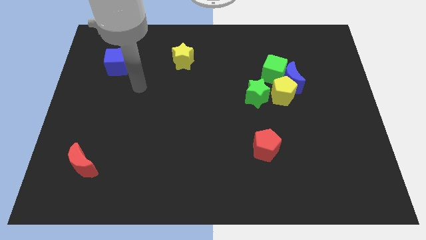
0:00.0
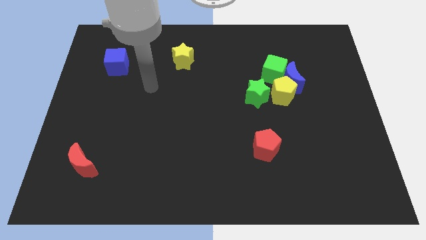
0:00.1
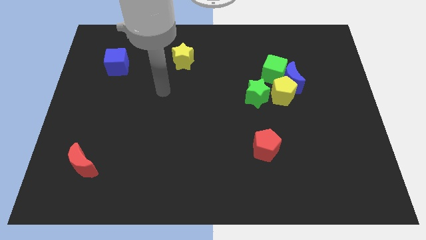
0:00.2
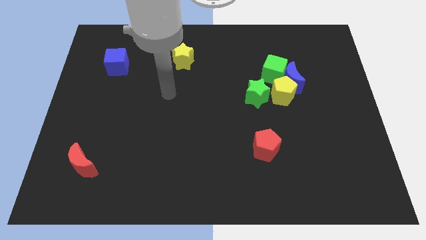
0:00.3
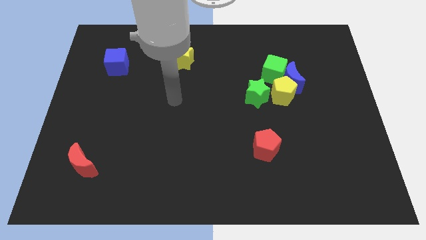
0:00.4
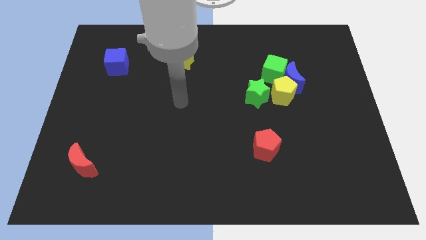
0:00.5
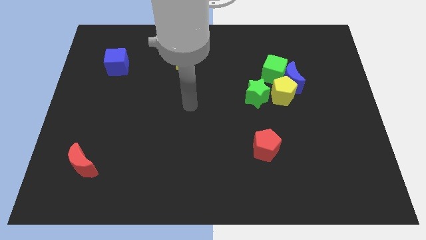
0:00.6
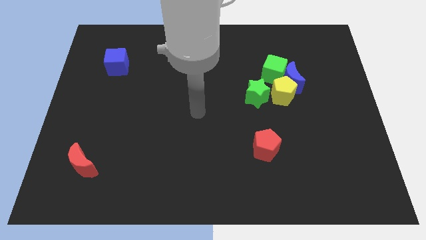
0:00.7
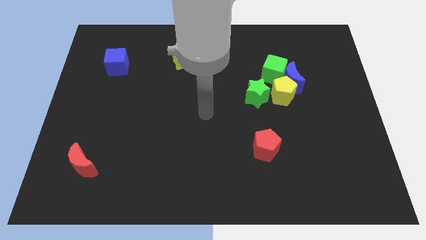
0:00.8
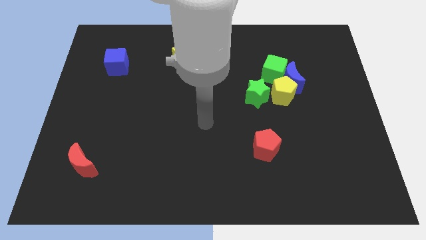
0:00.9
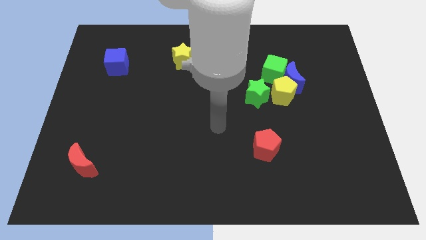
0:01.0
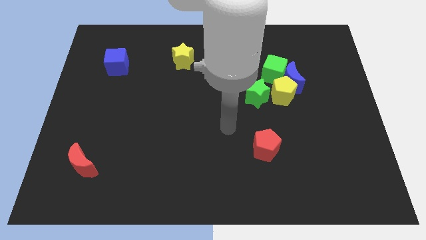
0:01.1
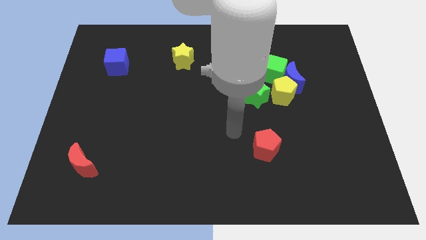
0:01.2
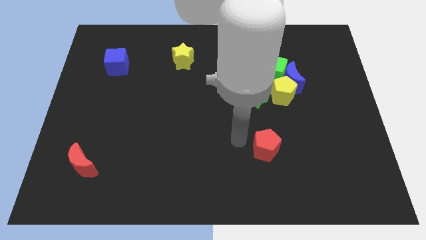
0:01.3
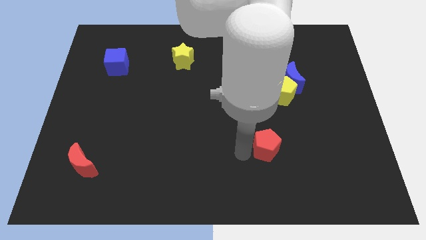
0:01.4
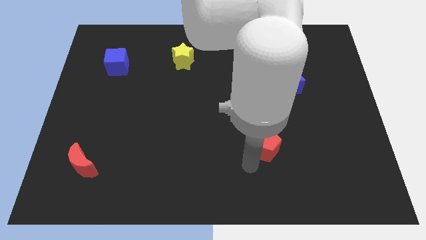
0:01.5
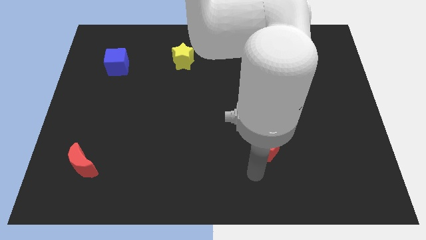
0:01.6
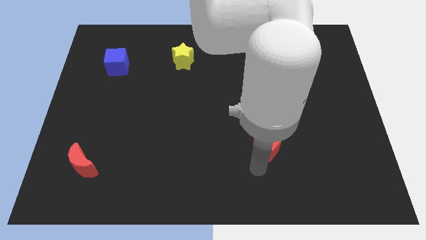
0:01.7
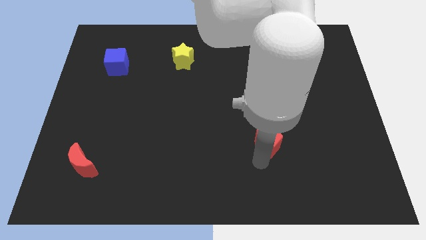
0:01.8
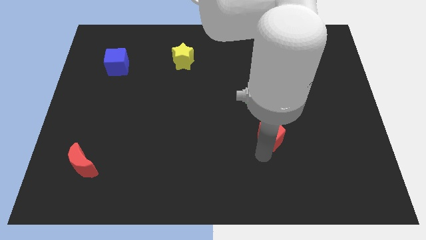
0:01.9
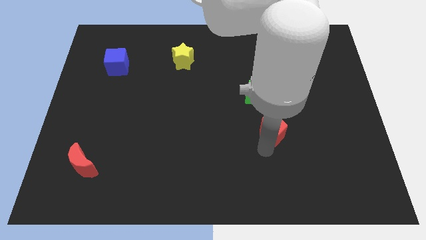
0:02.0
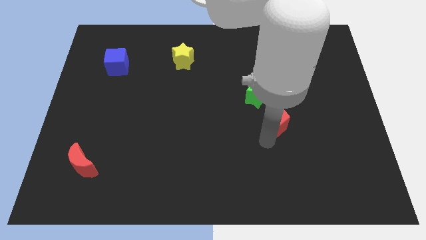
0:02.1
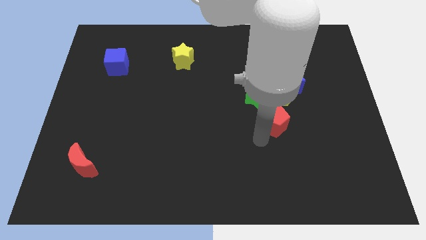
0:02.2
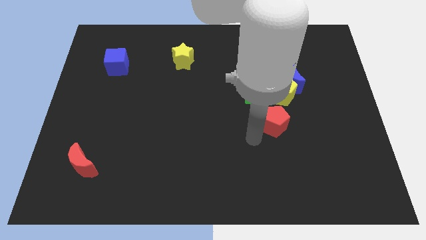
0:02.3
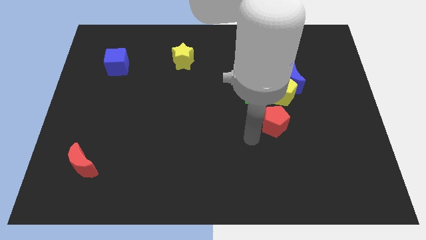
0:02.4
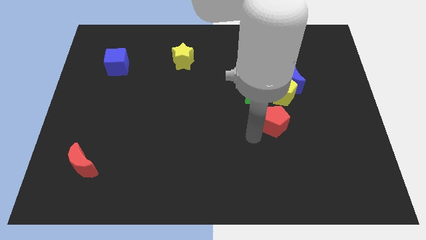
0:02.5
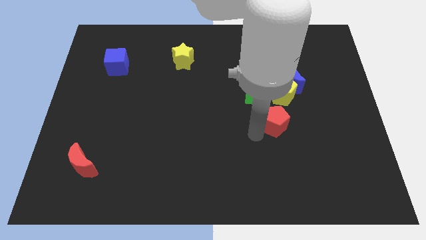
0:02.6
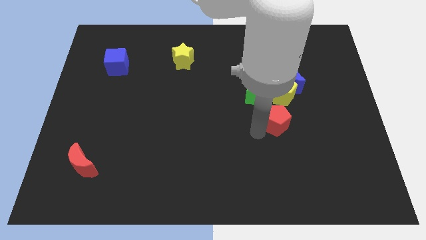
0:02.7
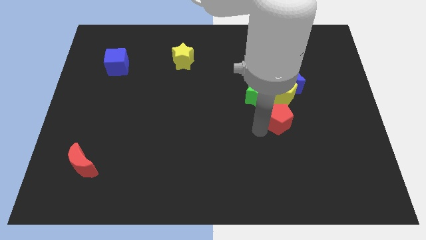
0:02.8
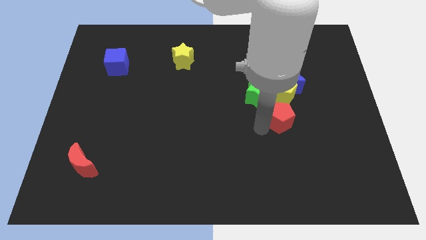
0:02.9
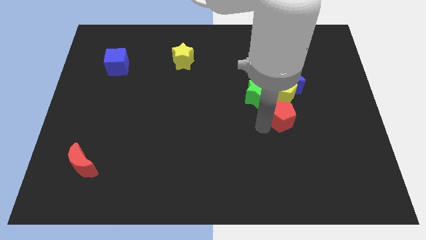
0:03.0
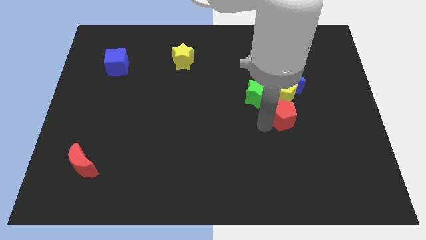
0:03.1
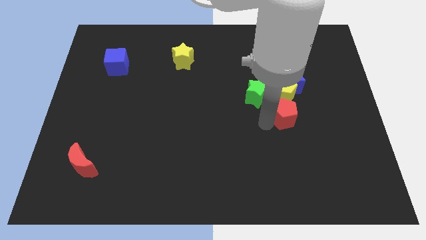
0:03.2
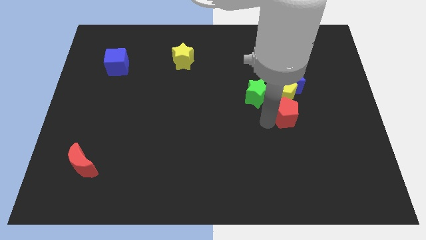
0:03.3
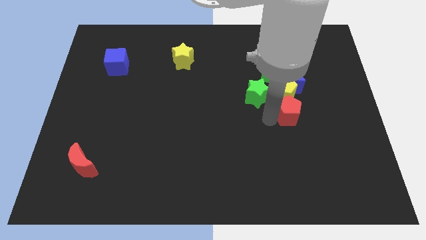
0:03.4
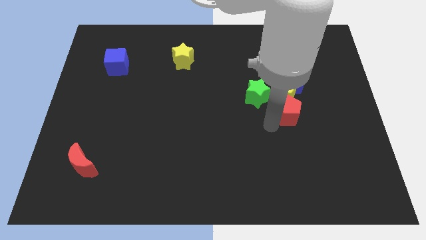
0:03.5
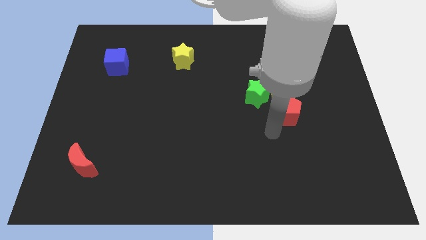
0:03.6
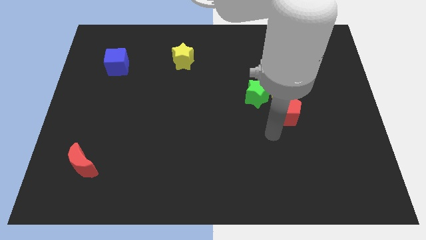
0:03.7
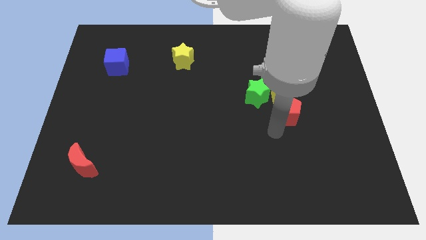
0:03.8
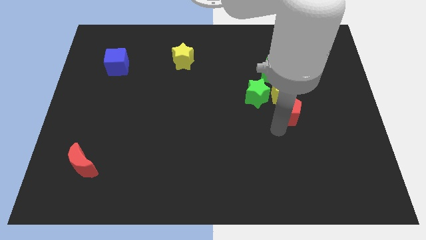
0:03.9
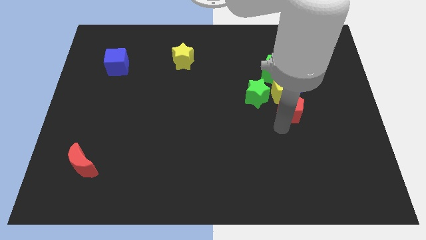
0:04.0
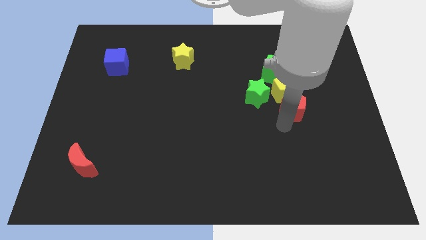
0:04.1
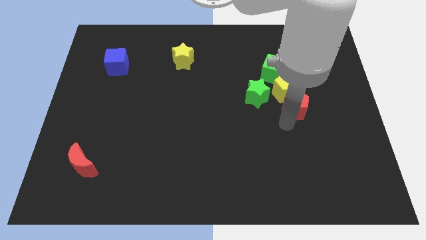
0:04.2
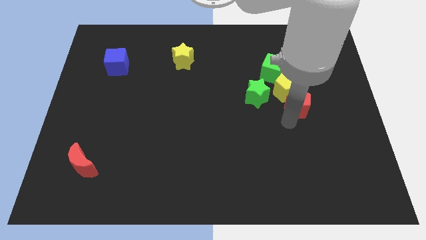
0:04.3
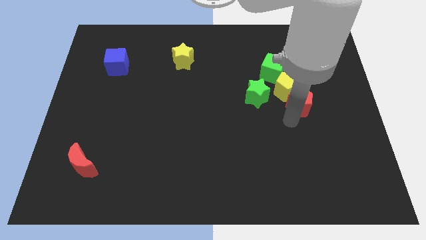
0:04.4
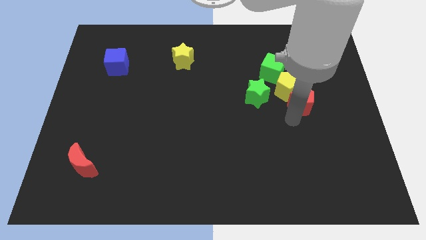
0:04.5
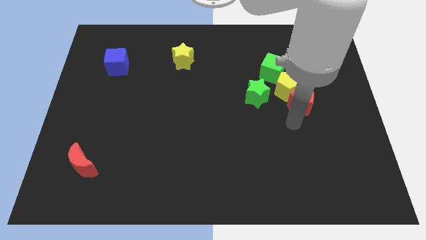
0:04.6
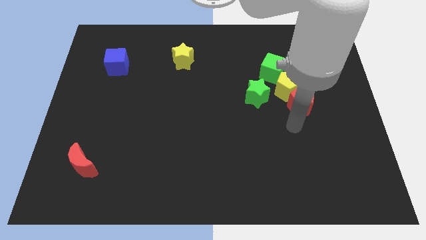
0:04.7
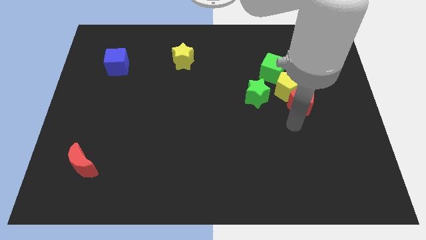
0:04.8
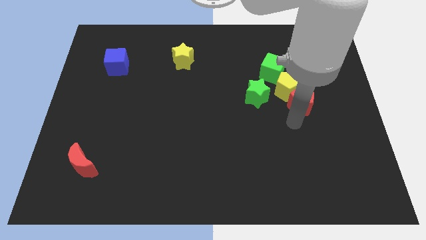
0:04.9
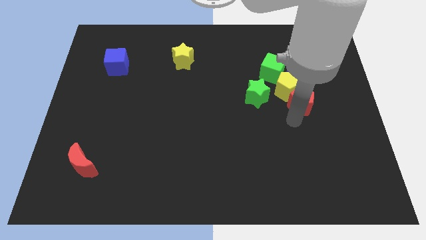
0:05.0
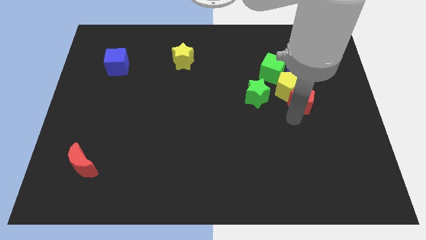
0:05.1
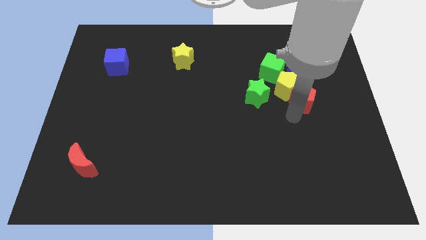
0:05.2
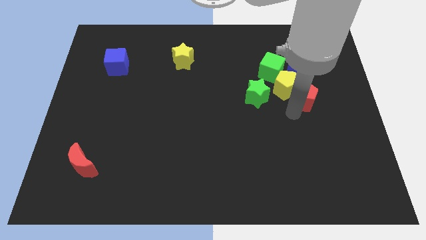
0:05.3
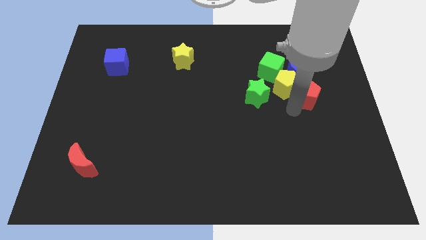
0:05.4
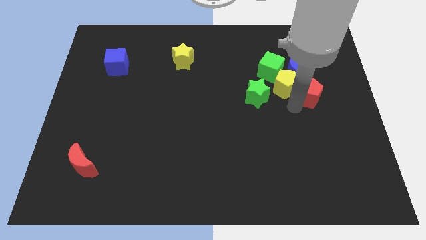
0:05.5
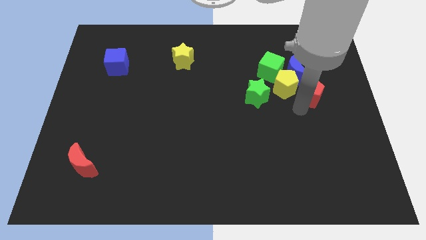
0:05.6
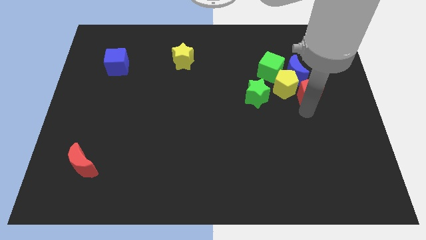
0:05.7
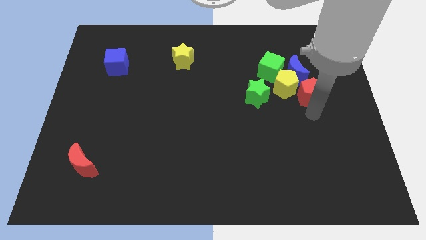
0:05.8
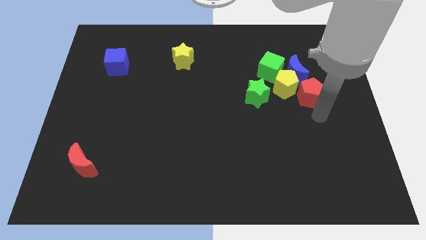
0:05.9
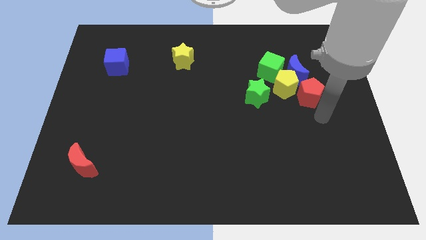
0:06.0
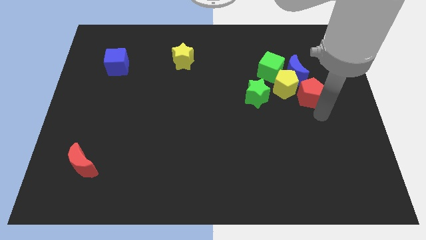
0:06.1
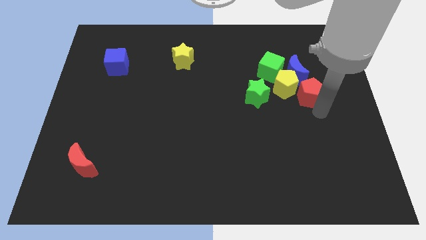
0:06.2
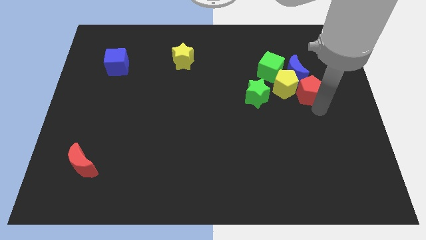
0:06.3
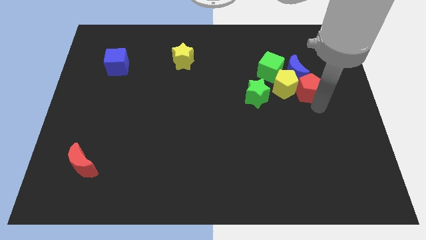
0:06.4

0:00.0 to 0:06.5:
slide the red pentagon to the blue moon

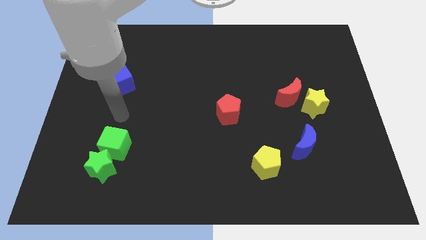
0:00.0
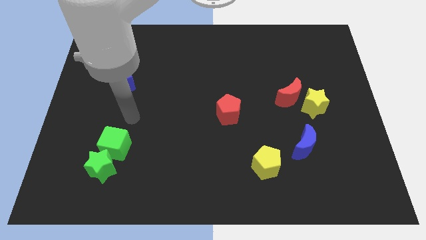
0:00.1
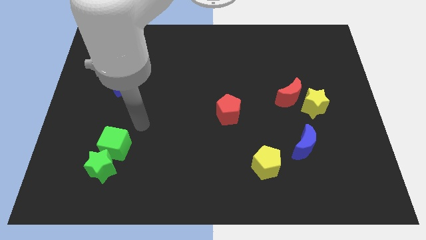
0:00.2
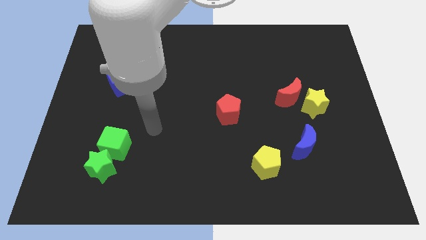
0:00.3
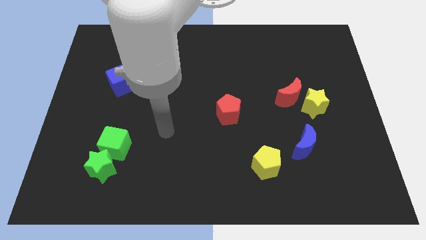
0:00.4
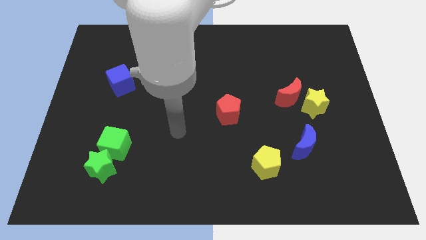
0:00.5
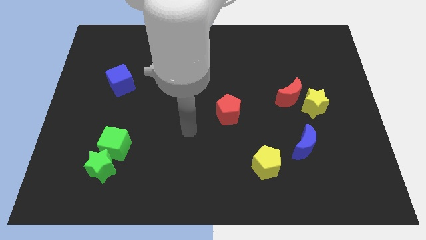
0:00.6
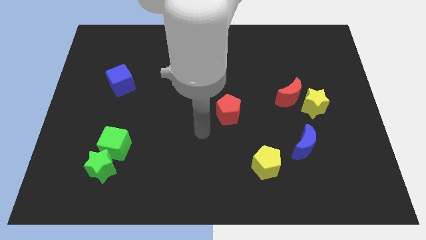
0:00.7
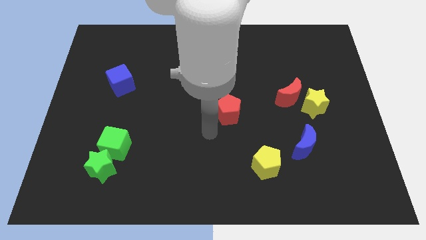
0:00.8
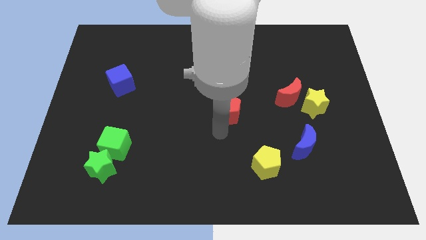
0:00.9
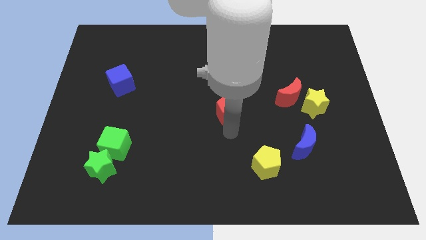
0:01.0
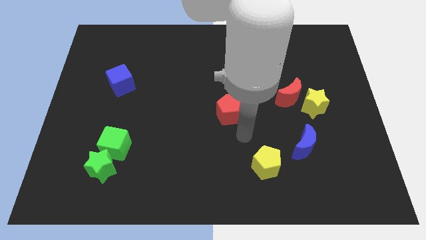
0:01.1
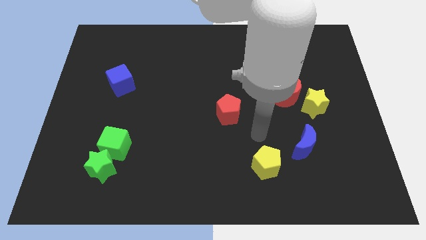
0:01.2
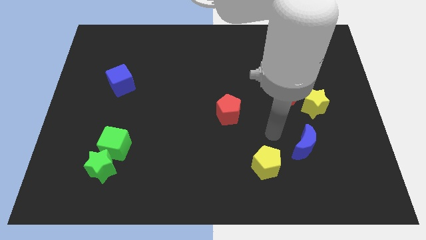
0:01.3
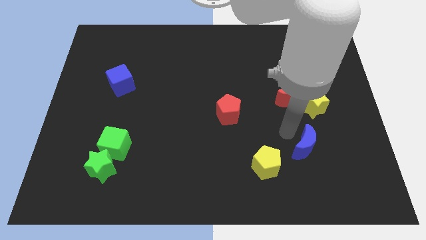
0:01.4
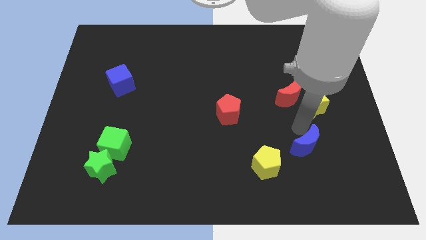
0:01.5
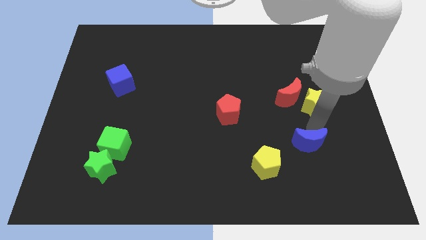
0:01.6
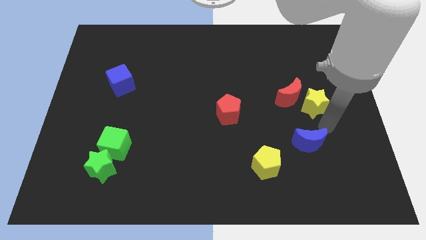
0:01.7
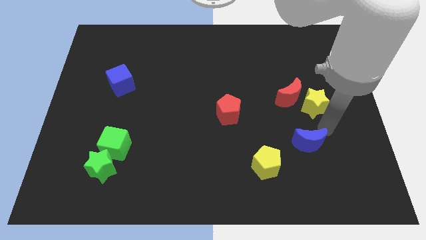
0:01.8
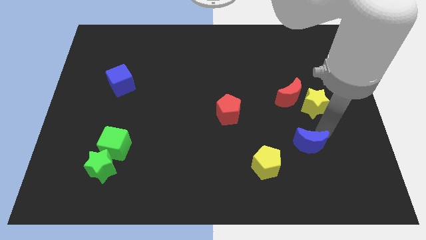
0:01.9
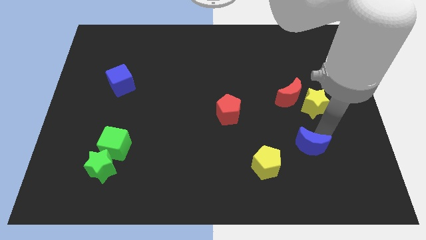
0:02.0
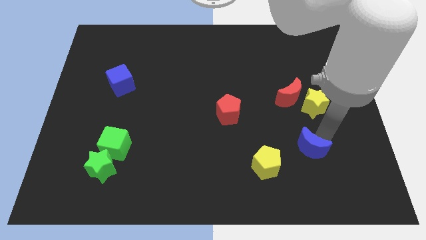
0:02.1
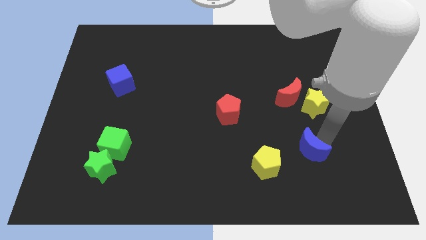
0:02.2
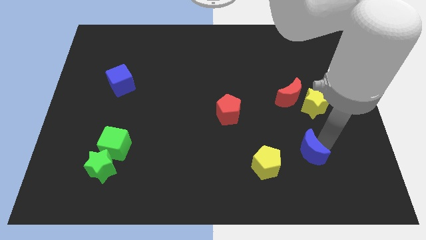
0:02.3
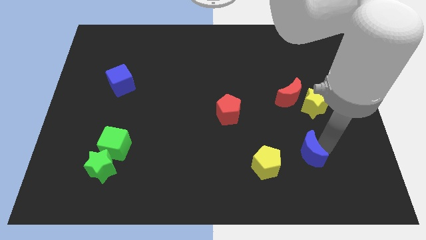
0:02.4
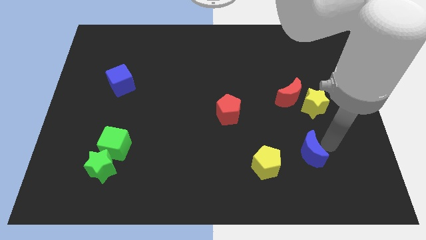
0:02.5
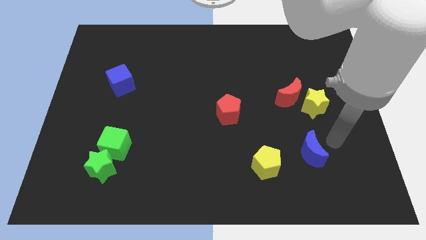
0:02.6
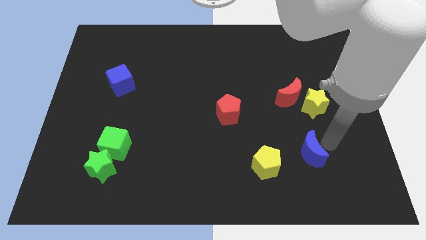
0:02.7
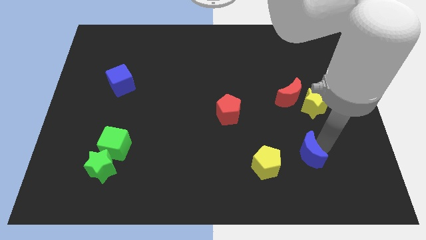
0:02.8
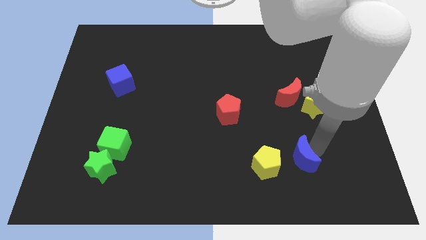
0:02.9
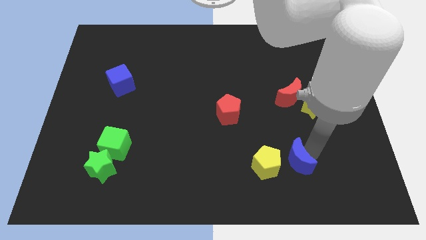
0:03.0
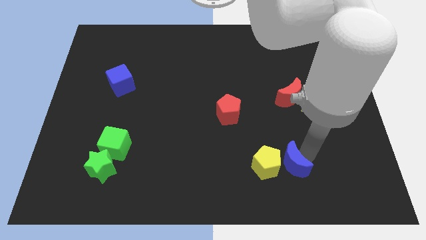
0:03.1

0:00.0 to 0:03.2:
move the blue moon next to the yellow pentagon
